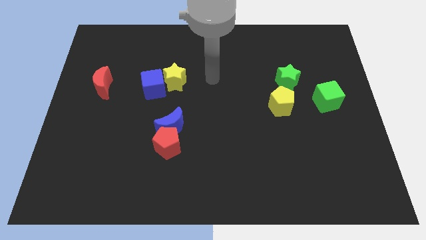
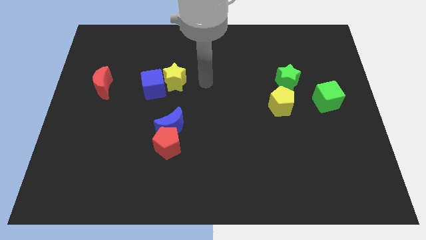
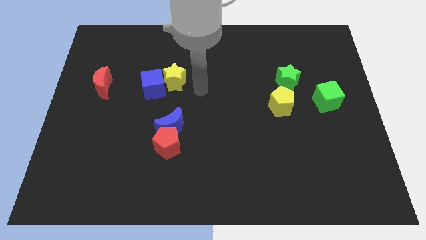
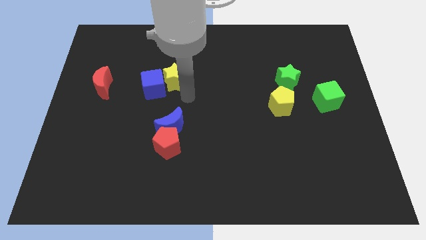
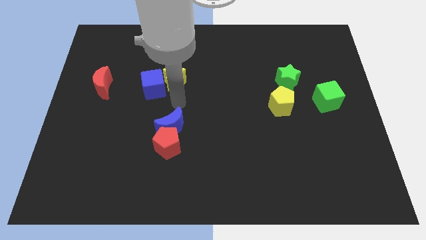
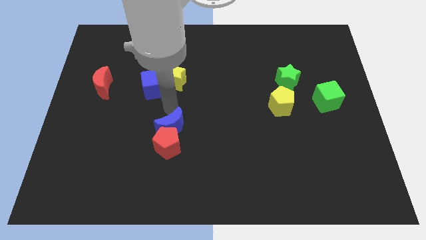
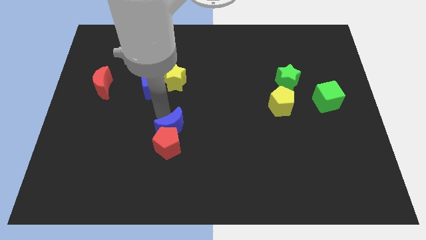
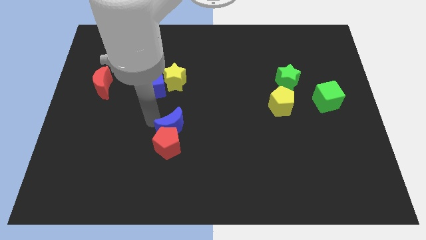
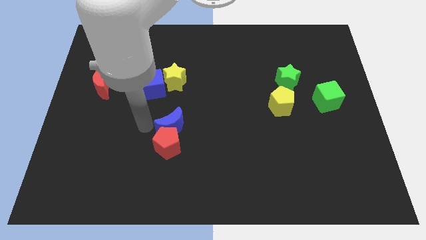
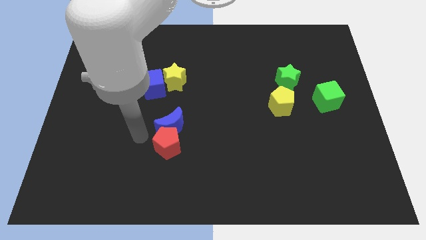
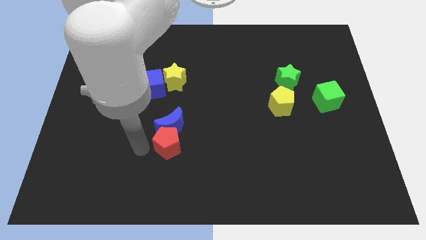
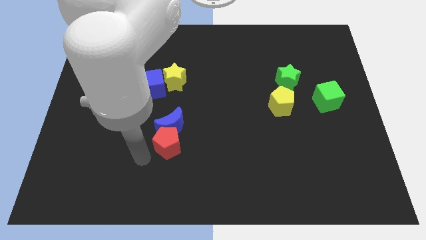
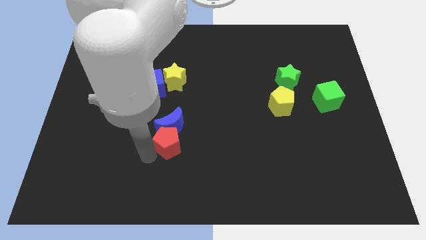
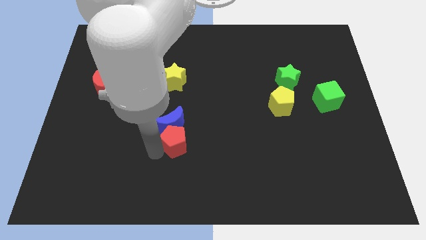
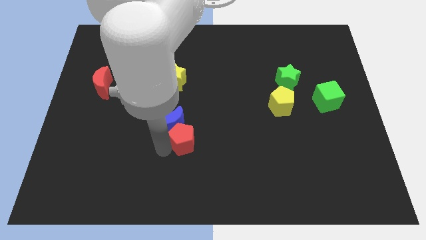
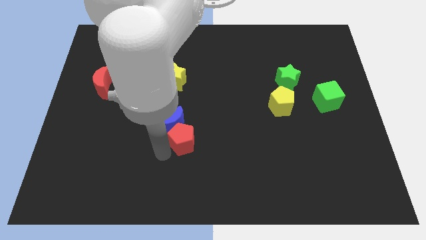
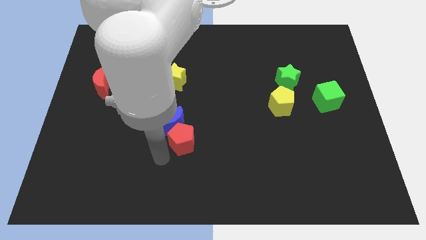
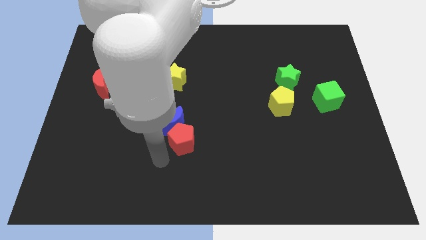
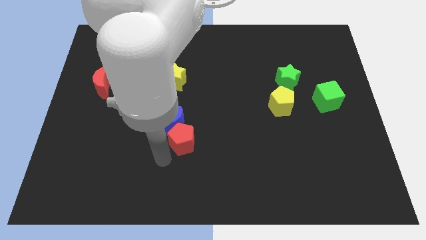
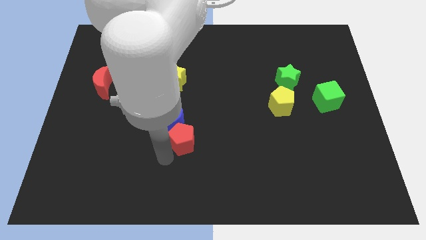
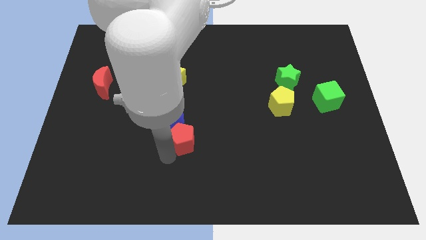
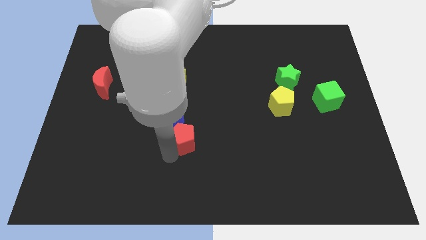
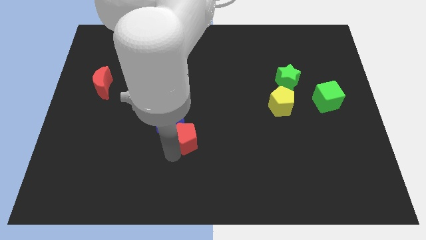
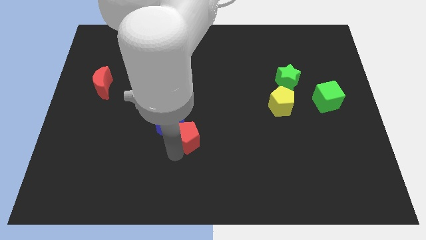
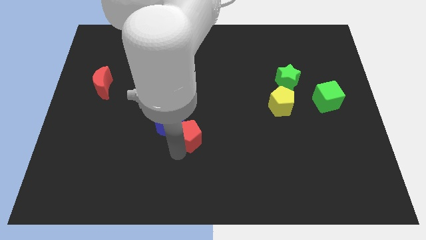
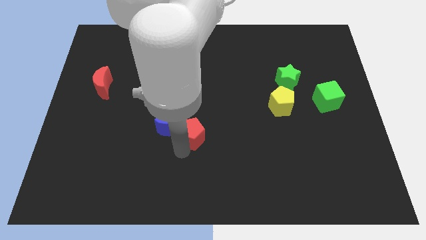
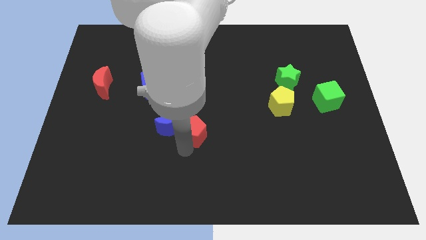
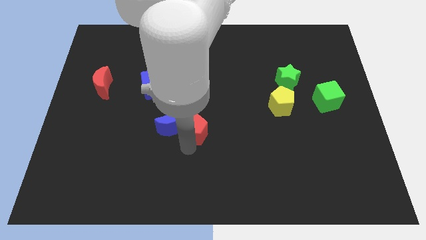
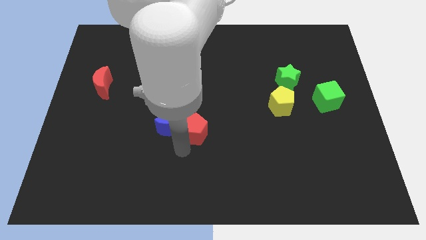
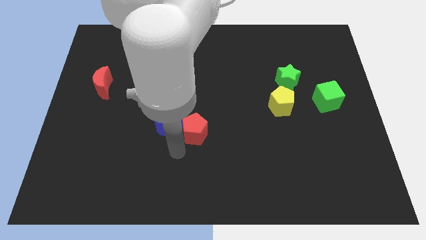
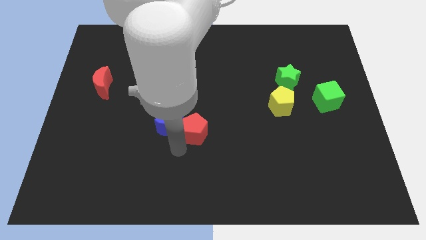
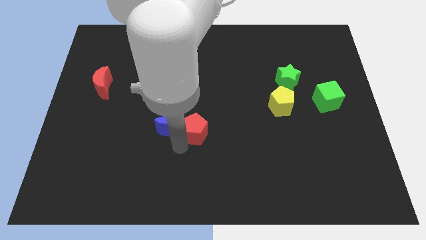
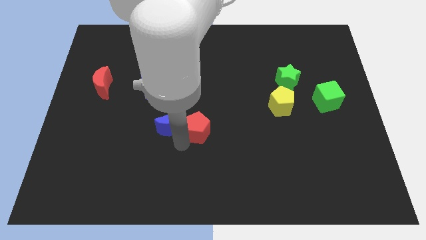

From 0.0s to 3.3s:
slide the red pentagon somewhat upwards and then to the right

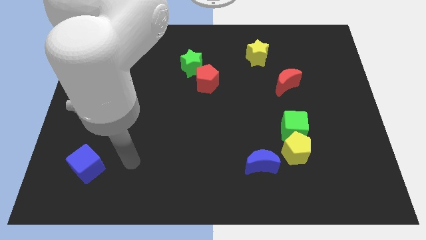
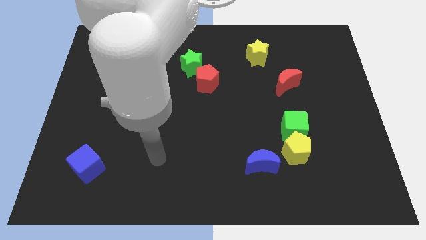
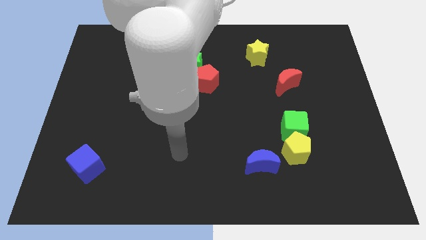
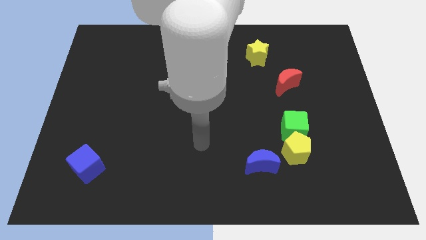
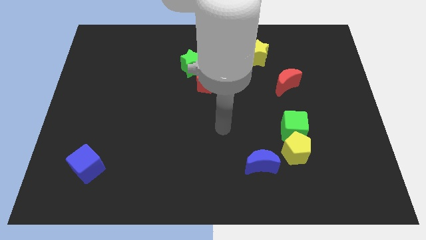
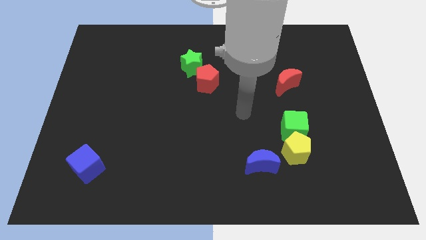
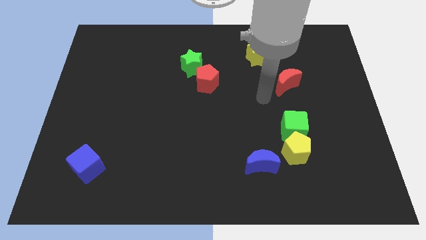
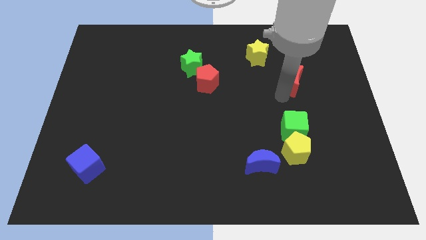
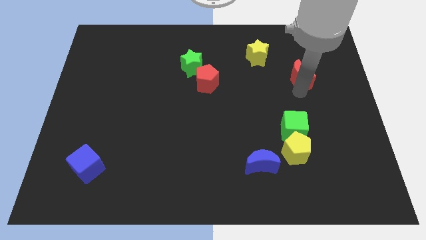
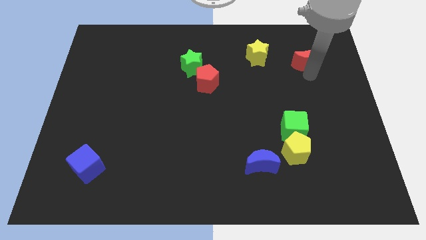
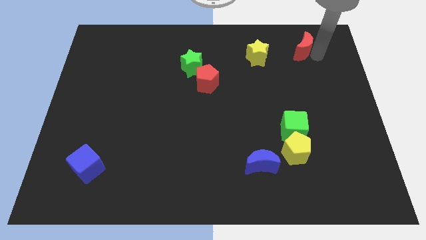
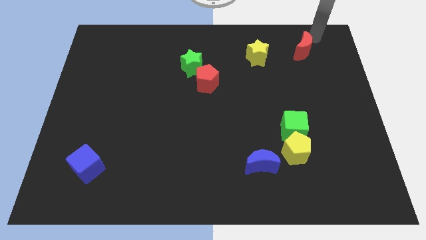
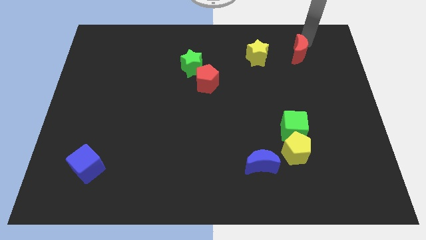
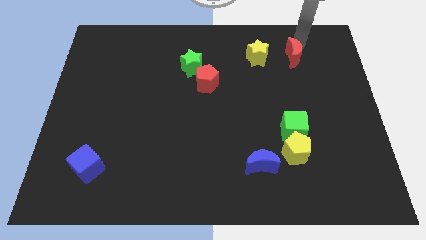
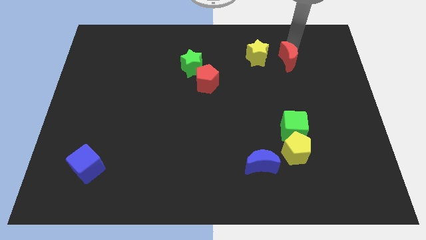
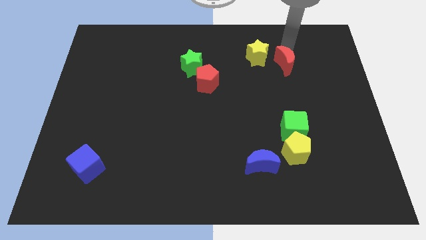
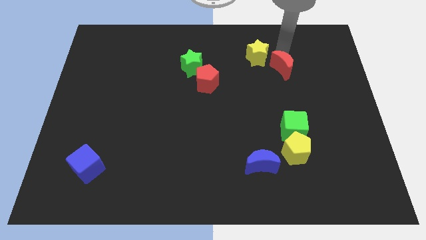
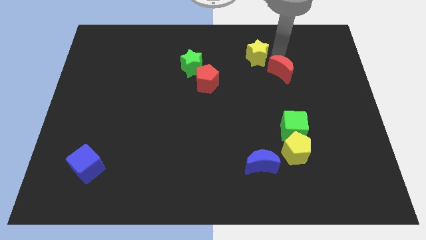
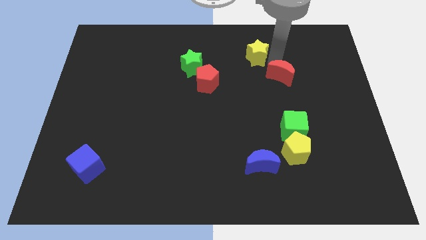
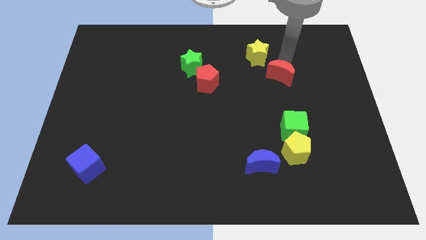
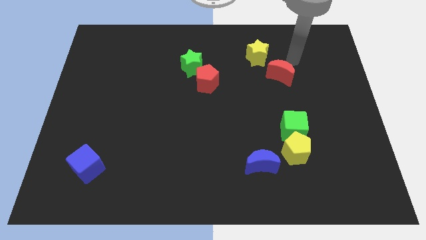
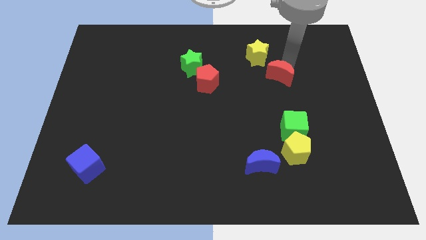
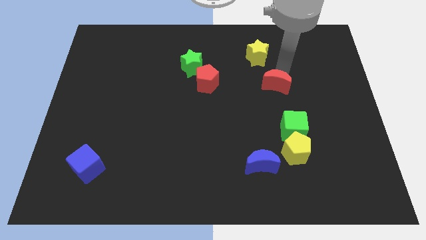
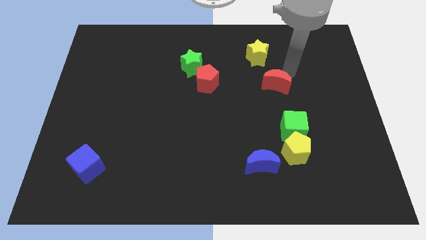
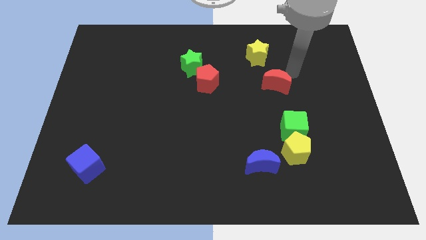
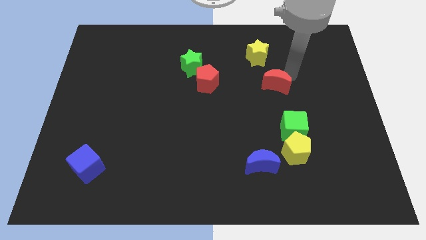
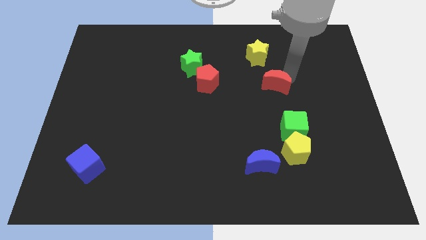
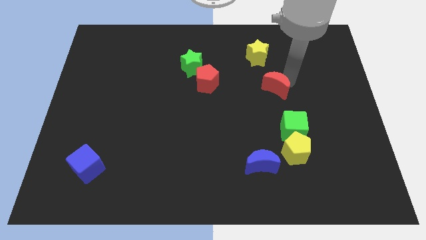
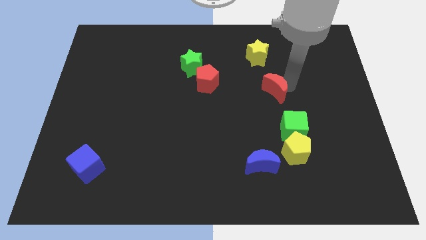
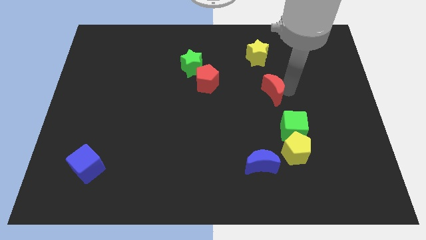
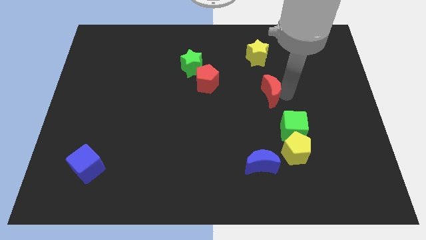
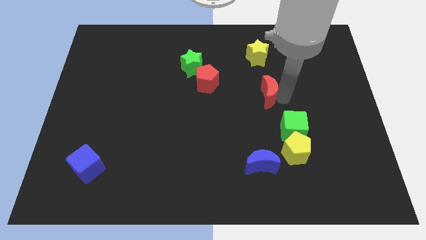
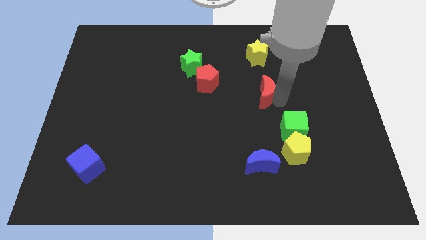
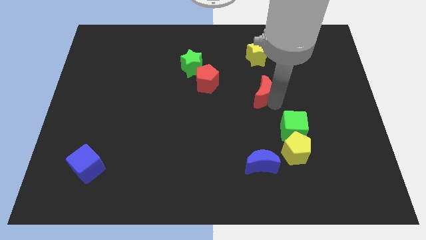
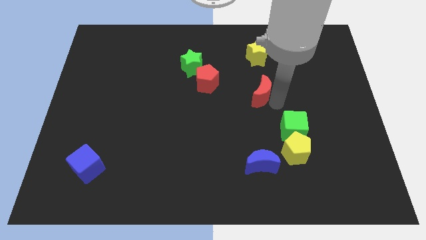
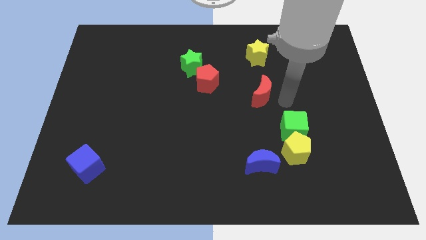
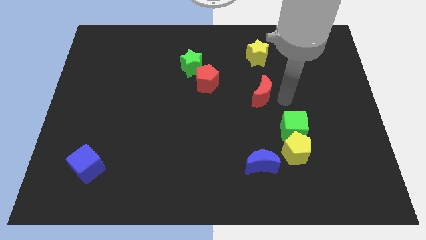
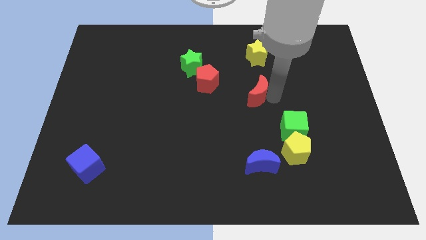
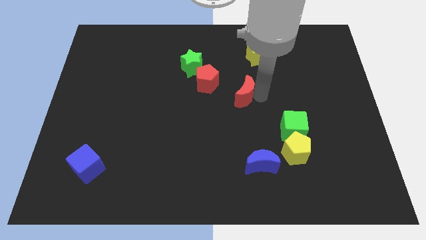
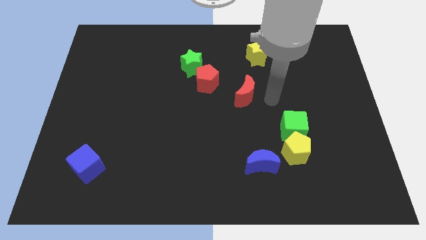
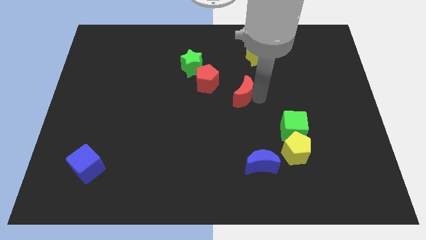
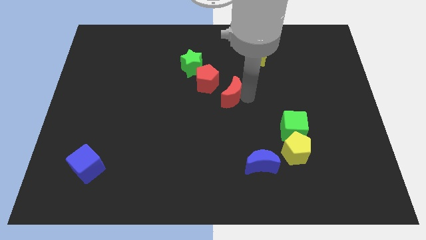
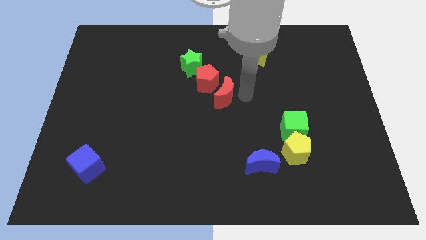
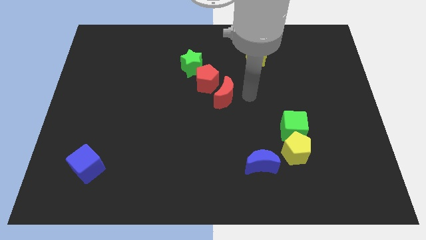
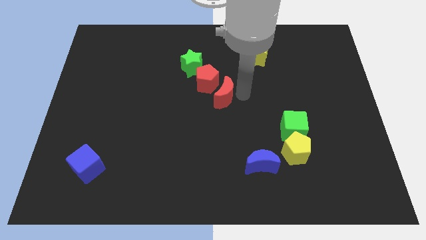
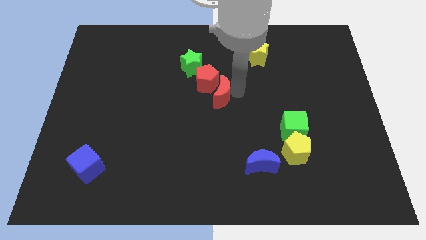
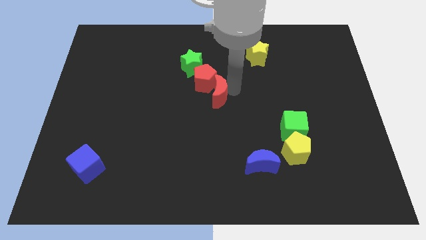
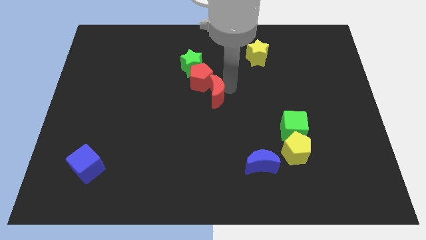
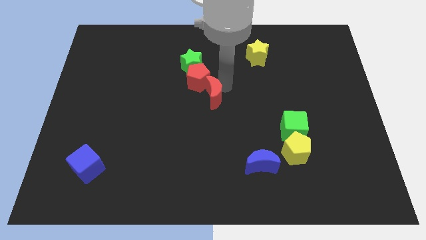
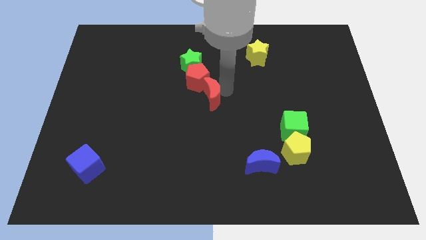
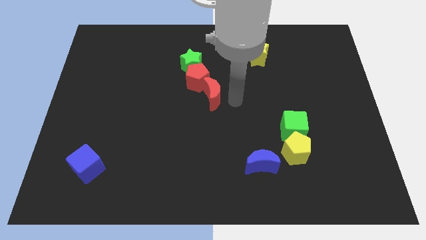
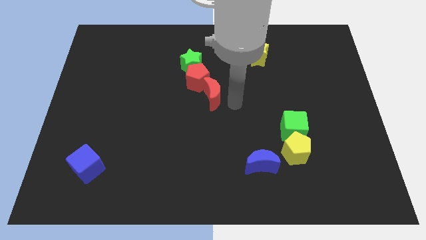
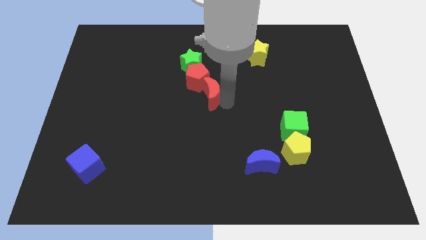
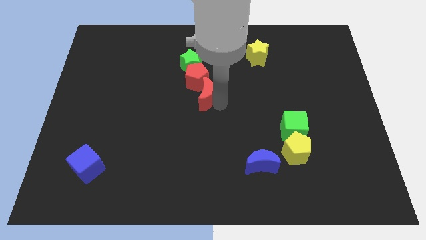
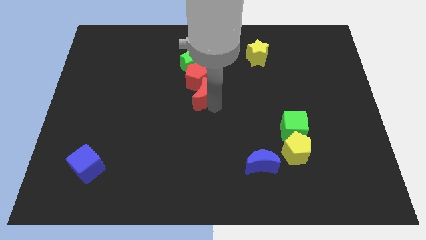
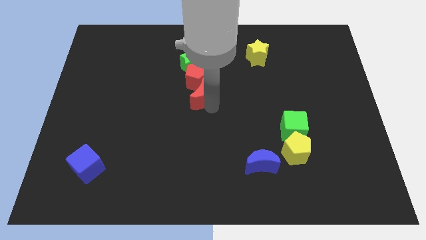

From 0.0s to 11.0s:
slide the red moon left
